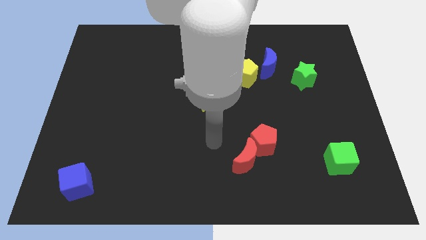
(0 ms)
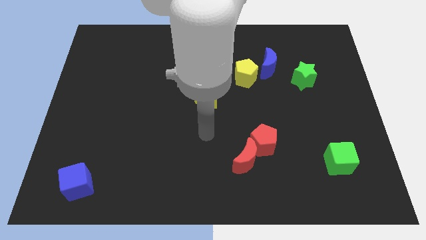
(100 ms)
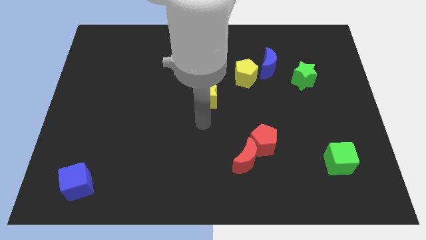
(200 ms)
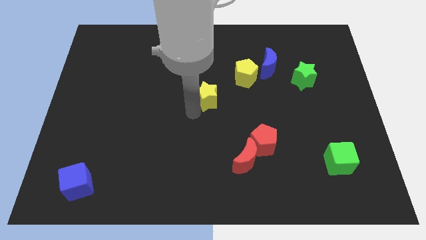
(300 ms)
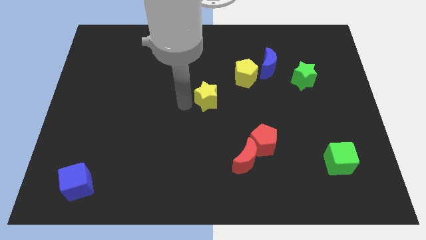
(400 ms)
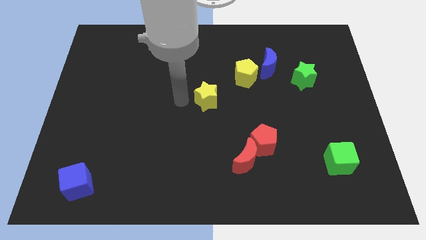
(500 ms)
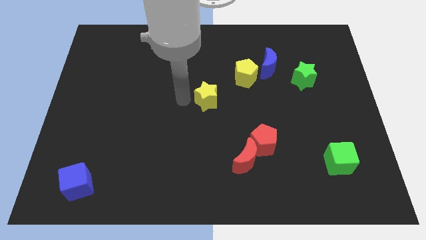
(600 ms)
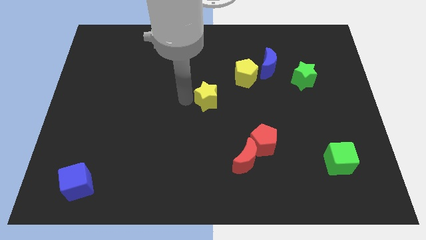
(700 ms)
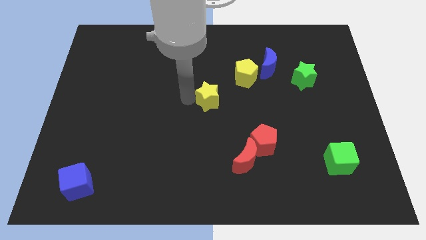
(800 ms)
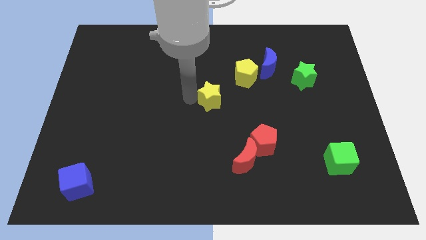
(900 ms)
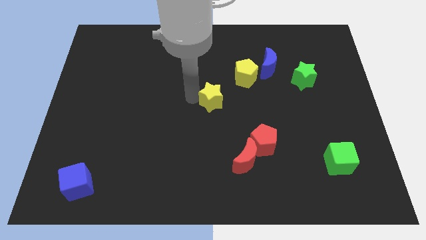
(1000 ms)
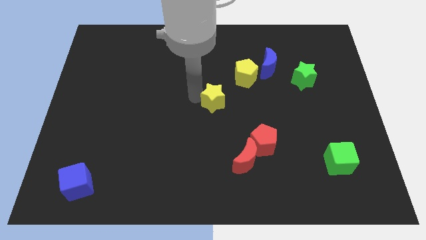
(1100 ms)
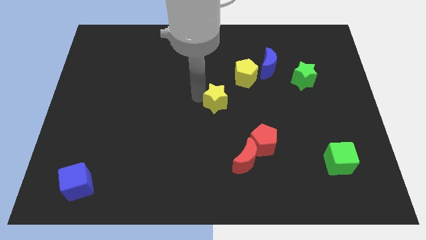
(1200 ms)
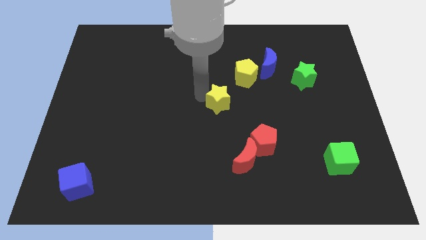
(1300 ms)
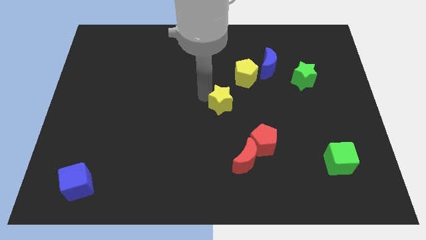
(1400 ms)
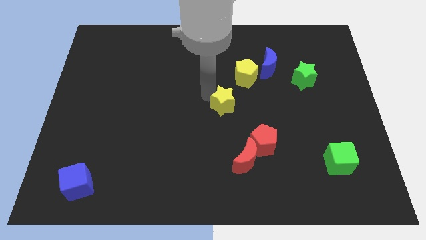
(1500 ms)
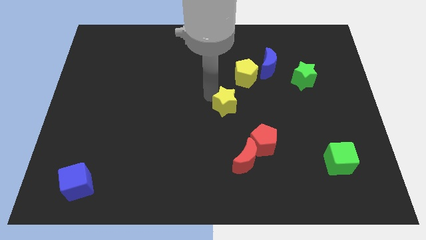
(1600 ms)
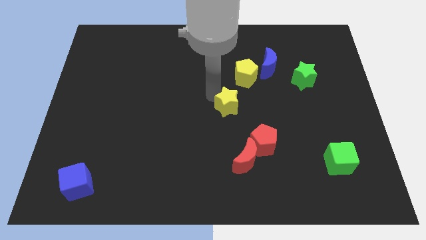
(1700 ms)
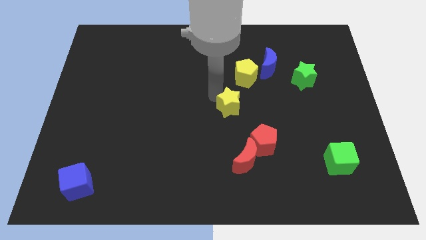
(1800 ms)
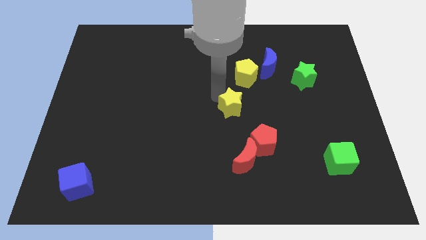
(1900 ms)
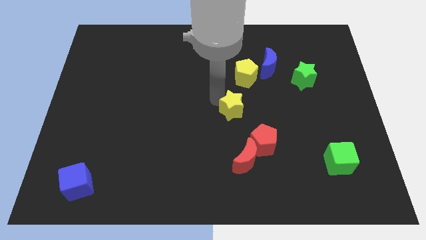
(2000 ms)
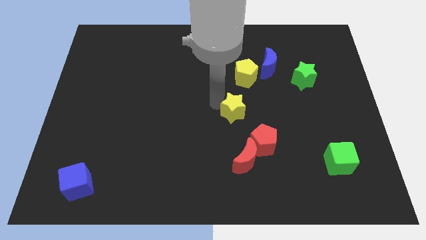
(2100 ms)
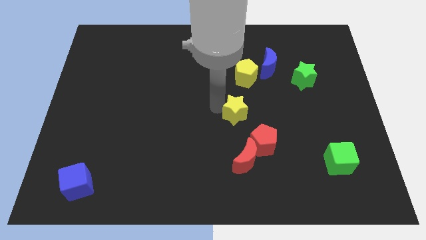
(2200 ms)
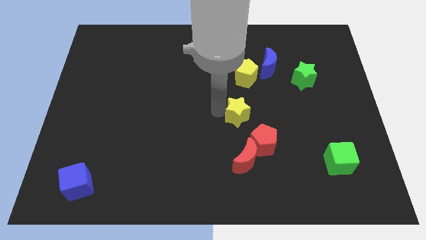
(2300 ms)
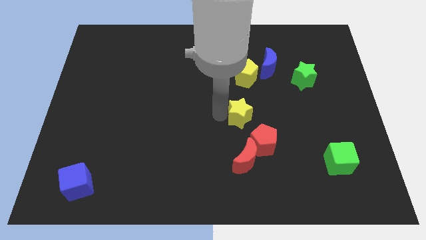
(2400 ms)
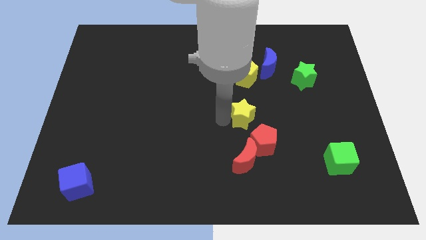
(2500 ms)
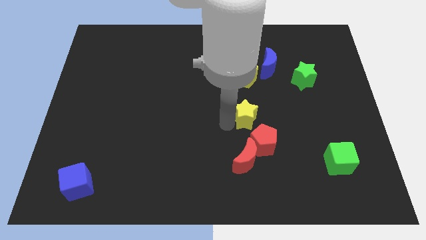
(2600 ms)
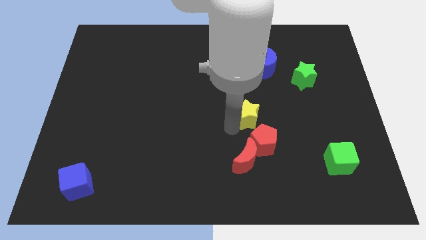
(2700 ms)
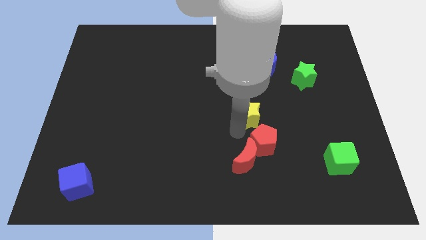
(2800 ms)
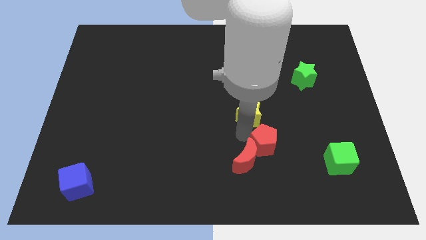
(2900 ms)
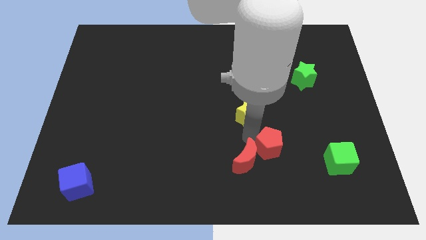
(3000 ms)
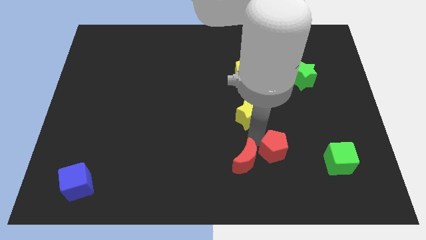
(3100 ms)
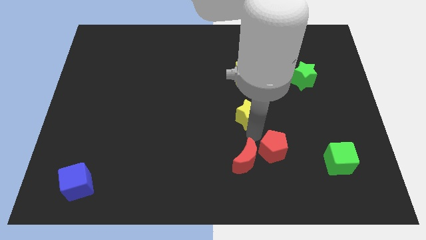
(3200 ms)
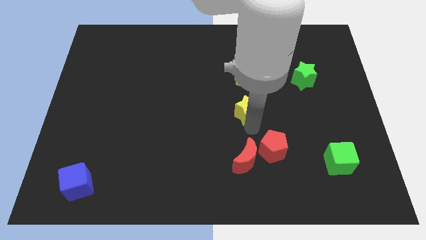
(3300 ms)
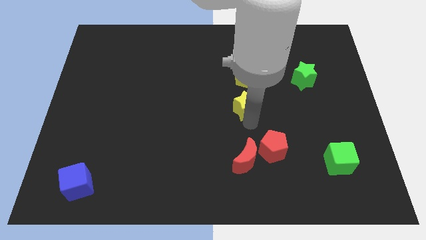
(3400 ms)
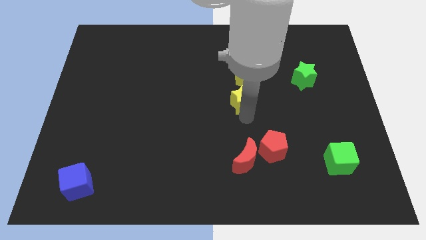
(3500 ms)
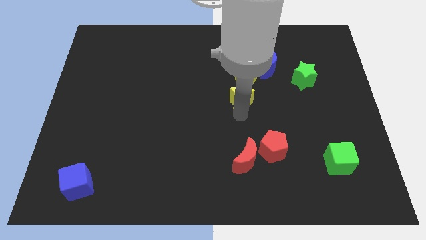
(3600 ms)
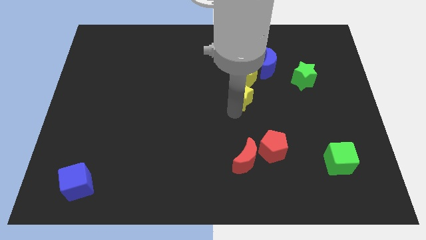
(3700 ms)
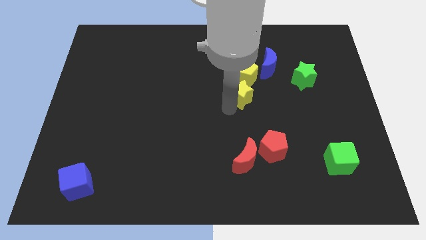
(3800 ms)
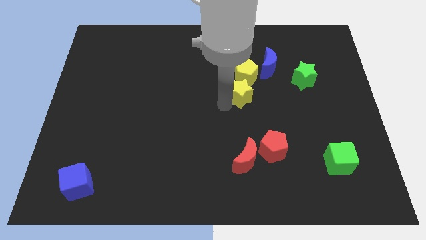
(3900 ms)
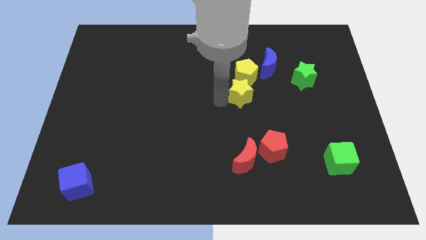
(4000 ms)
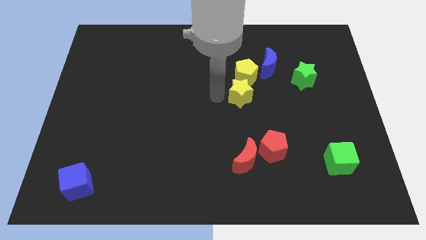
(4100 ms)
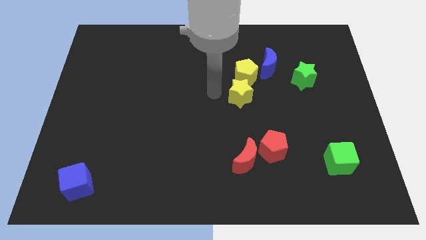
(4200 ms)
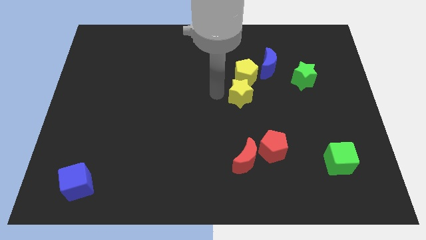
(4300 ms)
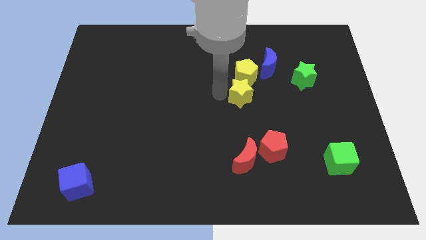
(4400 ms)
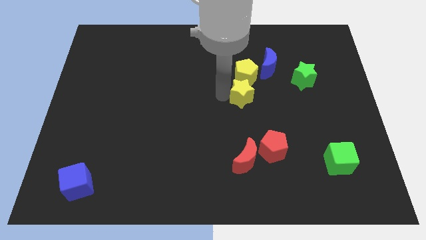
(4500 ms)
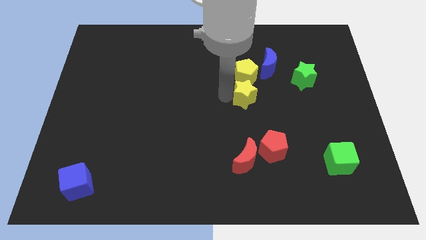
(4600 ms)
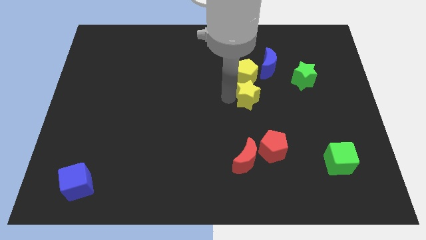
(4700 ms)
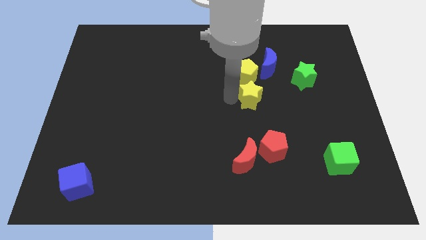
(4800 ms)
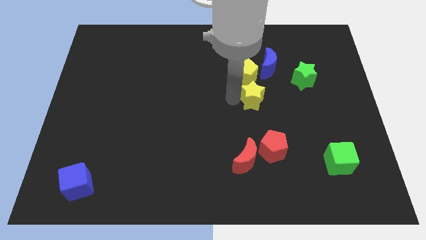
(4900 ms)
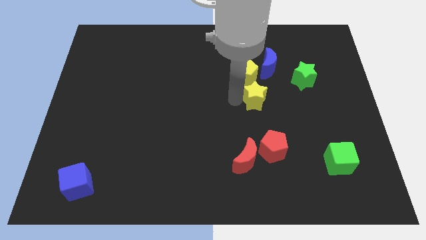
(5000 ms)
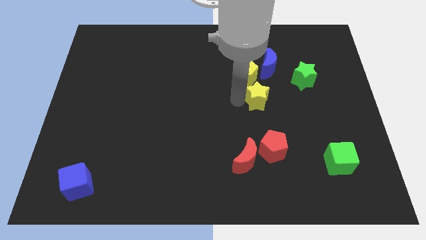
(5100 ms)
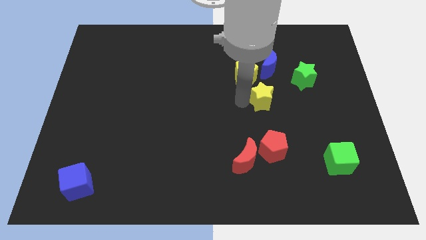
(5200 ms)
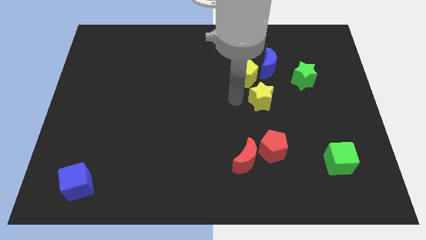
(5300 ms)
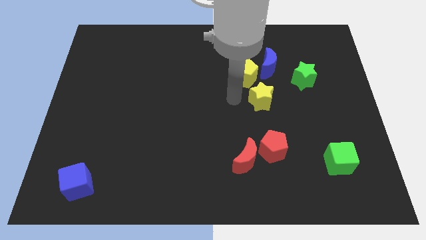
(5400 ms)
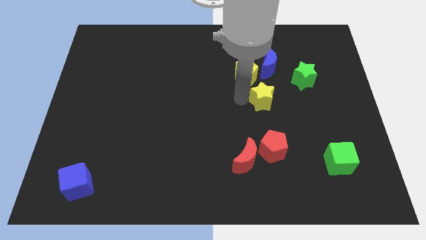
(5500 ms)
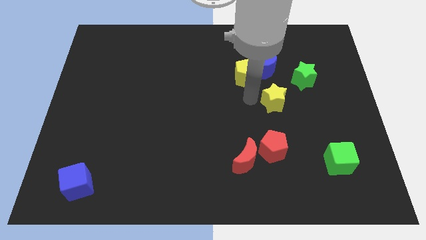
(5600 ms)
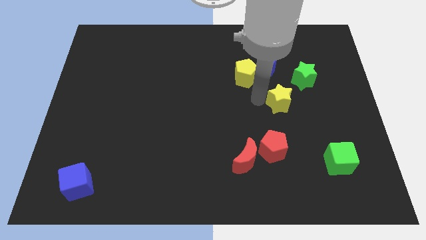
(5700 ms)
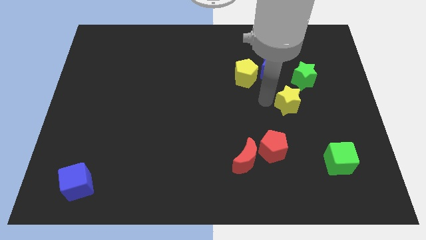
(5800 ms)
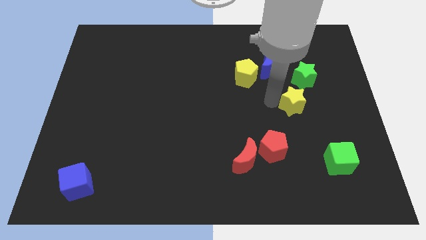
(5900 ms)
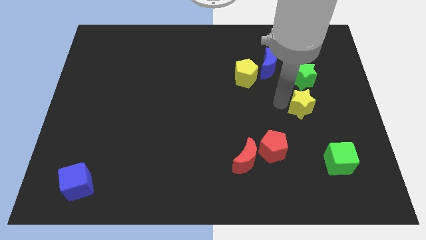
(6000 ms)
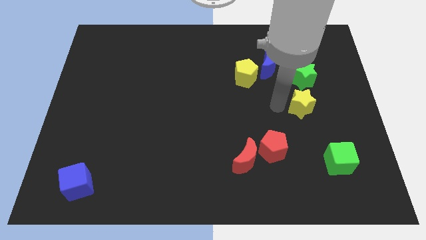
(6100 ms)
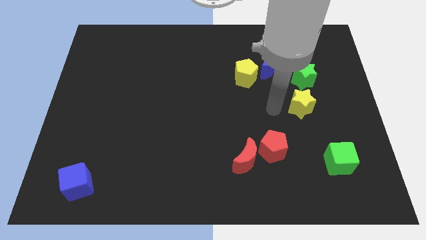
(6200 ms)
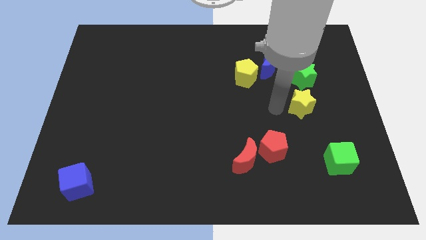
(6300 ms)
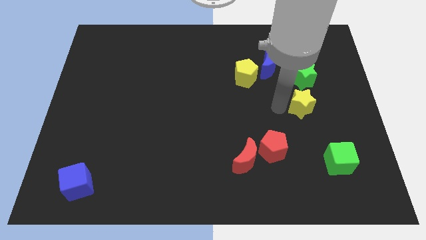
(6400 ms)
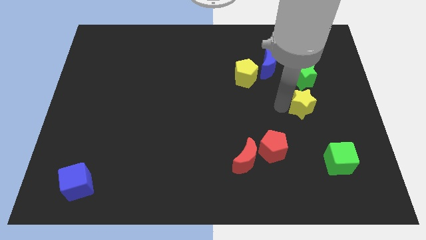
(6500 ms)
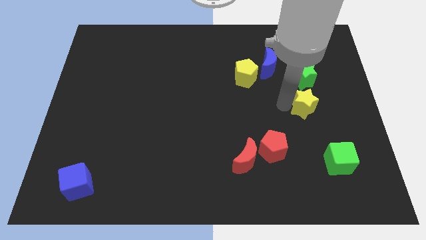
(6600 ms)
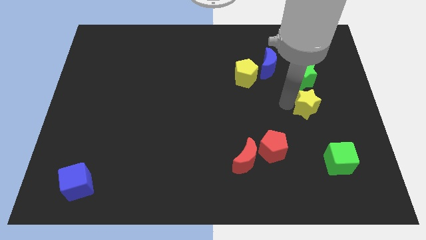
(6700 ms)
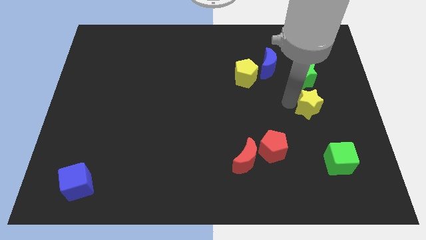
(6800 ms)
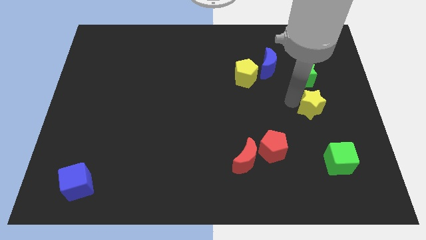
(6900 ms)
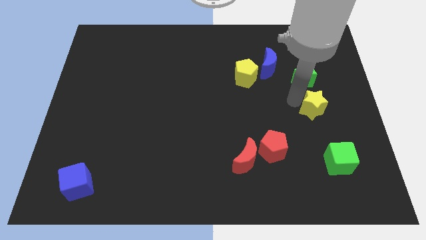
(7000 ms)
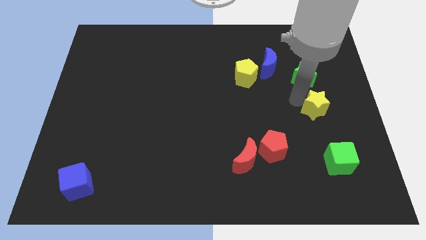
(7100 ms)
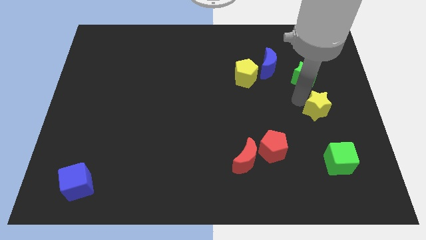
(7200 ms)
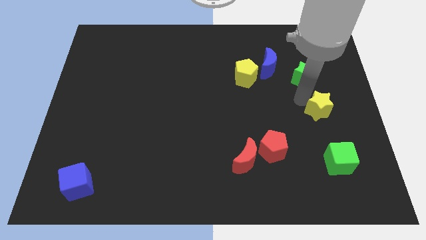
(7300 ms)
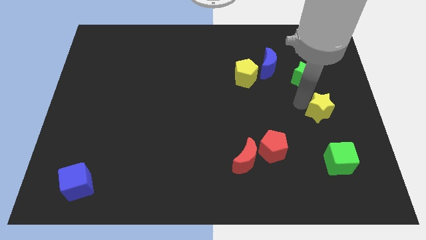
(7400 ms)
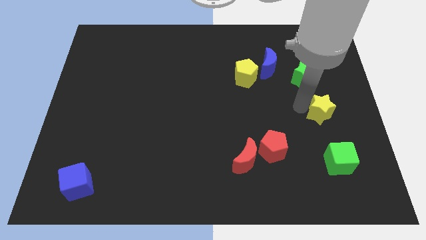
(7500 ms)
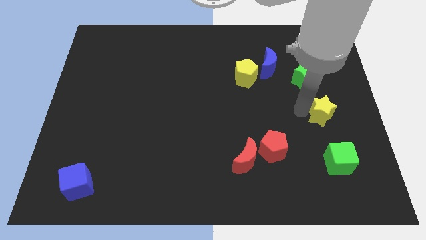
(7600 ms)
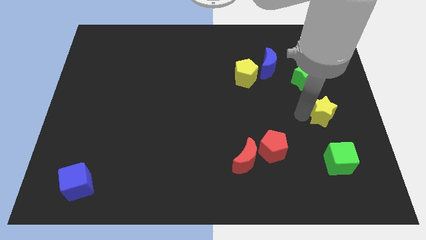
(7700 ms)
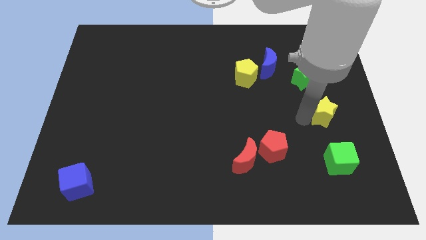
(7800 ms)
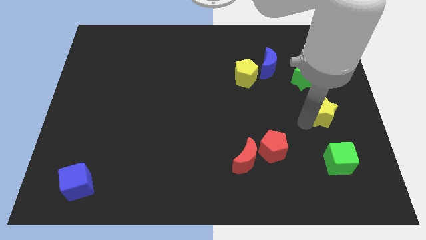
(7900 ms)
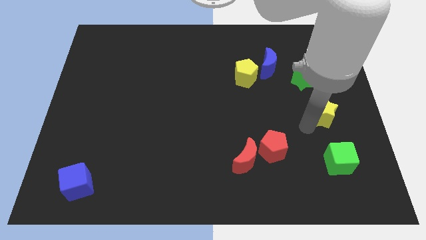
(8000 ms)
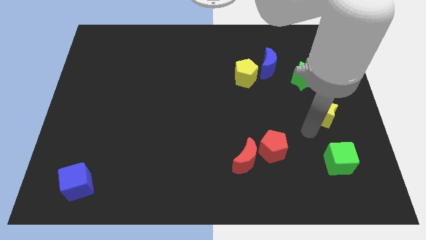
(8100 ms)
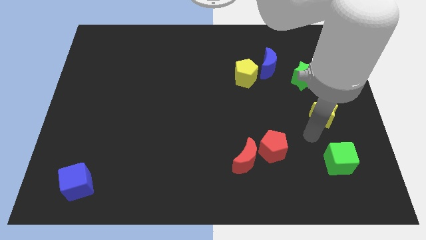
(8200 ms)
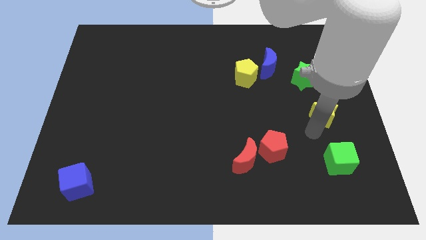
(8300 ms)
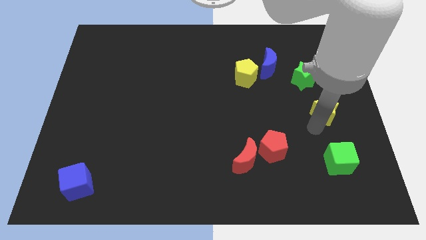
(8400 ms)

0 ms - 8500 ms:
push the yellow star to the right side
